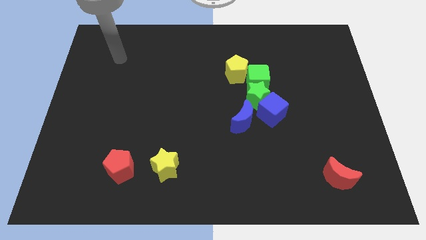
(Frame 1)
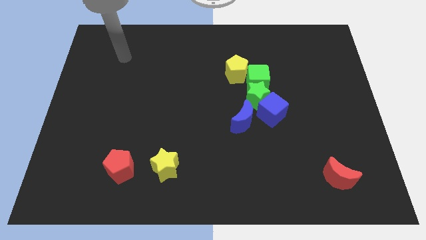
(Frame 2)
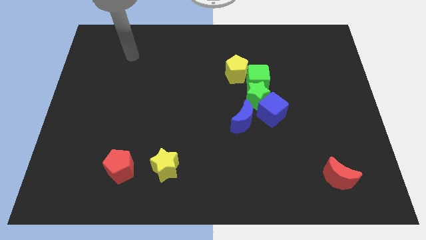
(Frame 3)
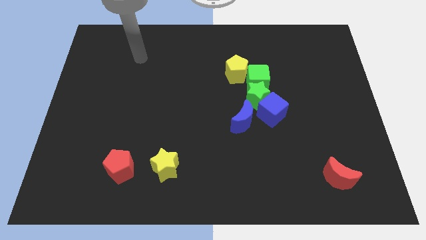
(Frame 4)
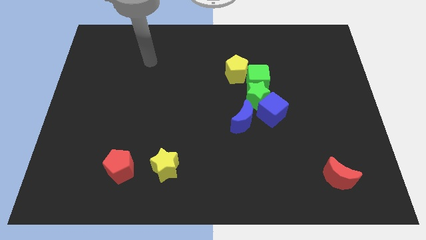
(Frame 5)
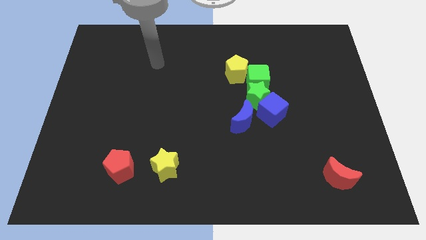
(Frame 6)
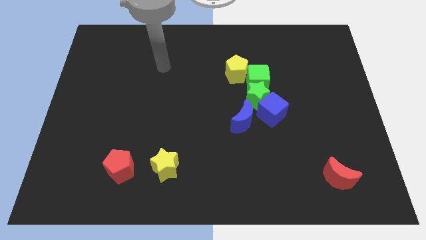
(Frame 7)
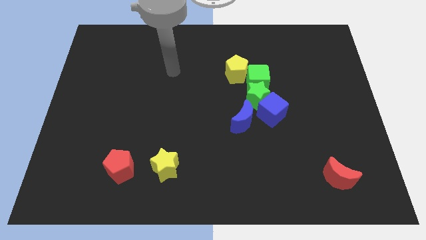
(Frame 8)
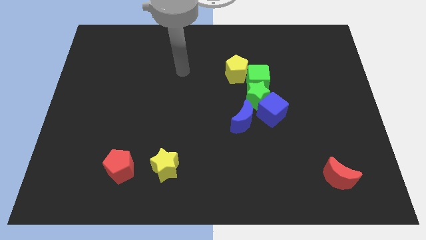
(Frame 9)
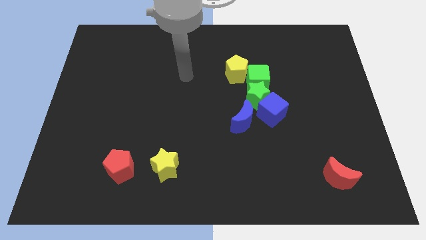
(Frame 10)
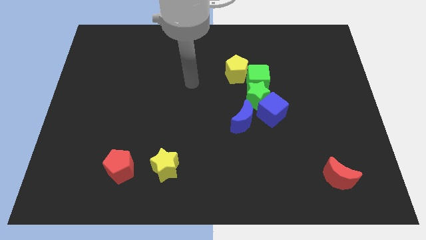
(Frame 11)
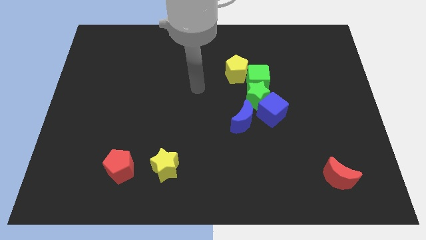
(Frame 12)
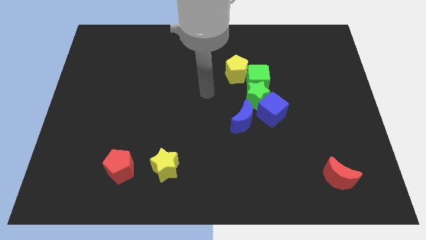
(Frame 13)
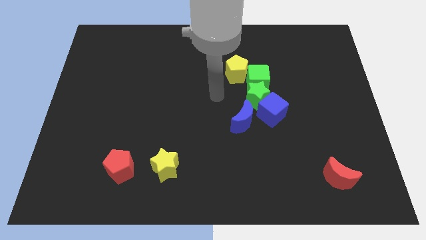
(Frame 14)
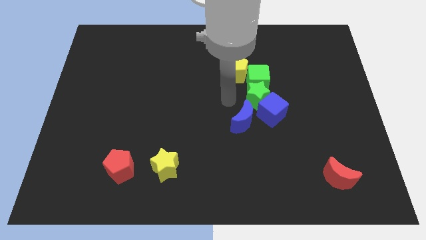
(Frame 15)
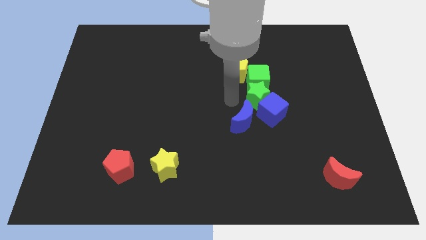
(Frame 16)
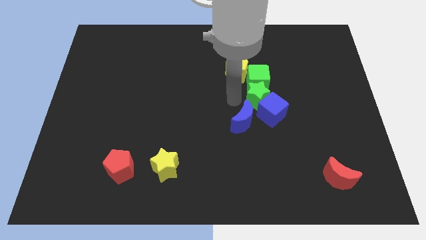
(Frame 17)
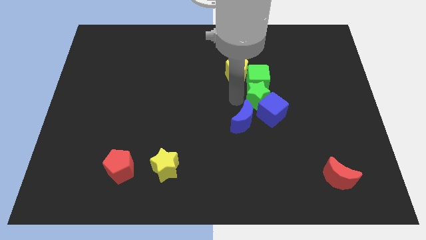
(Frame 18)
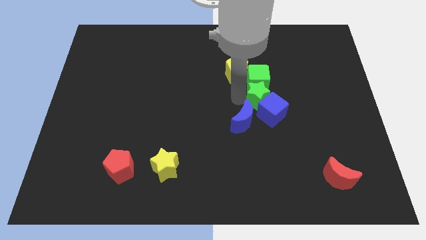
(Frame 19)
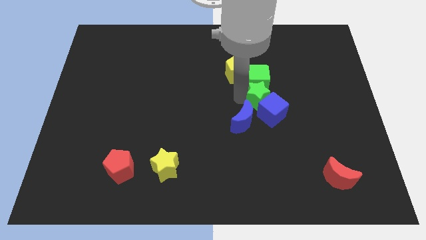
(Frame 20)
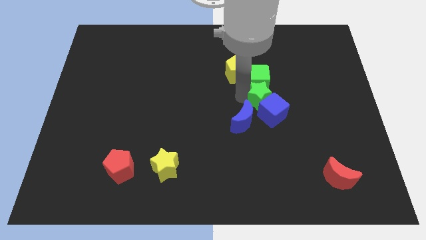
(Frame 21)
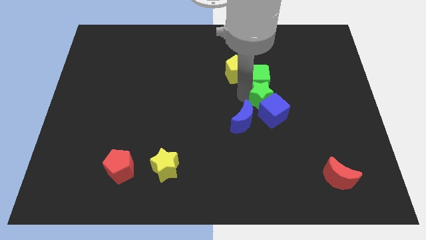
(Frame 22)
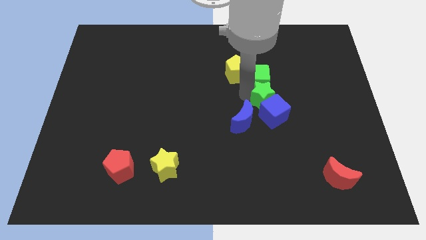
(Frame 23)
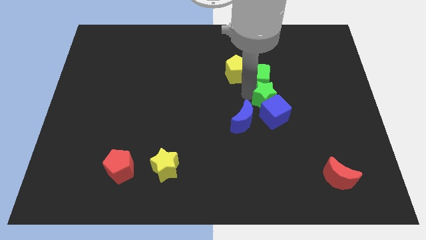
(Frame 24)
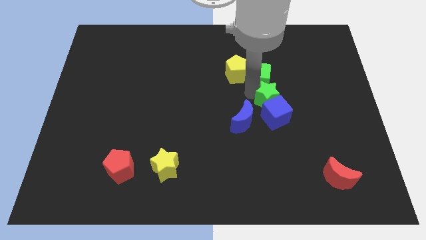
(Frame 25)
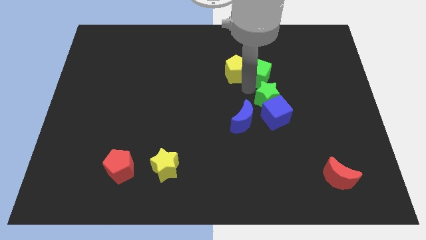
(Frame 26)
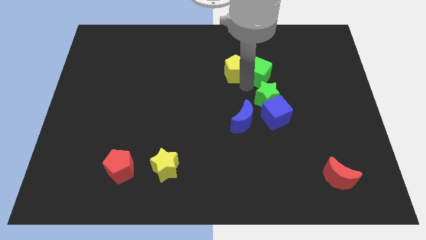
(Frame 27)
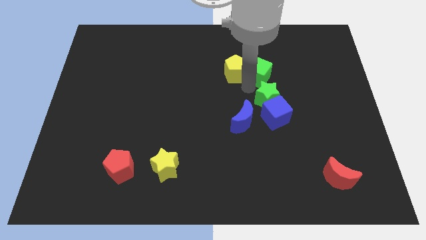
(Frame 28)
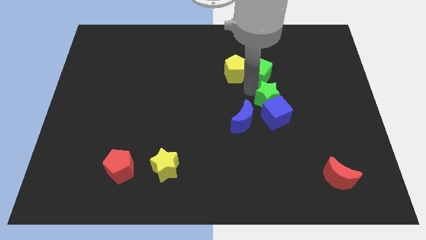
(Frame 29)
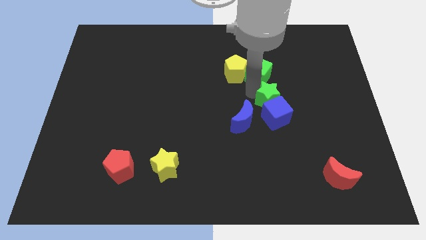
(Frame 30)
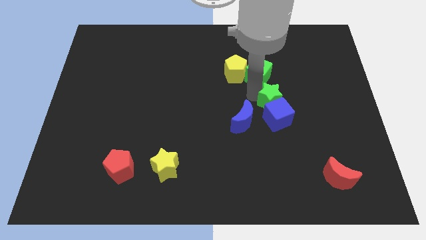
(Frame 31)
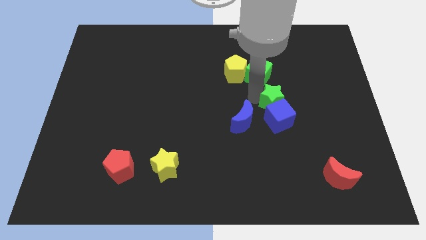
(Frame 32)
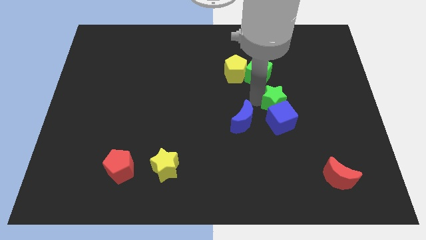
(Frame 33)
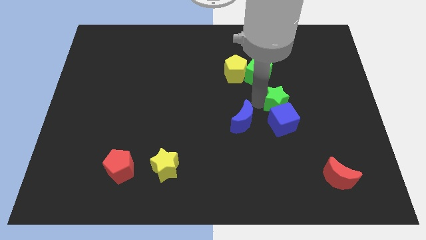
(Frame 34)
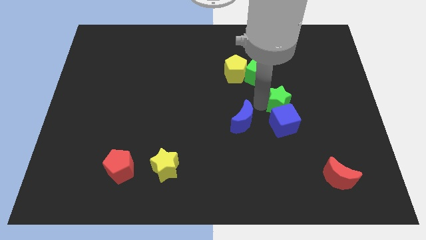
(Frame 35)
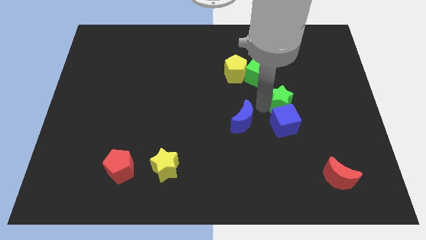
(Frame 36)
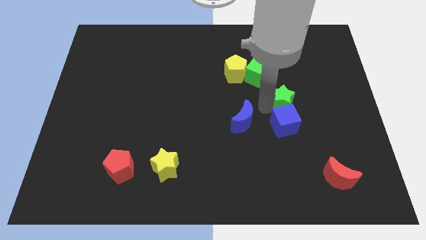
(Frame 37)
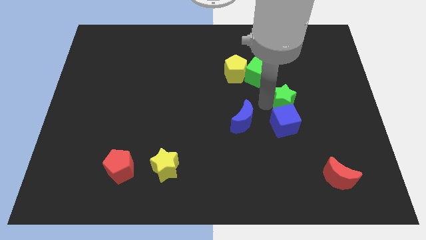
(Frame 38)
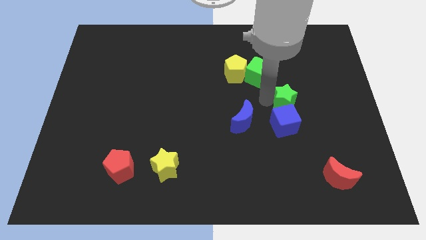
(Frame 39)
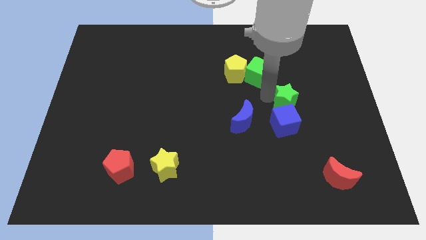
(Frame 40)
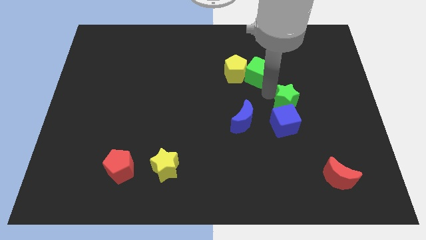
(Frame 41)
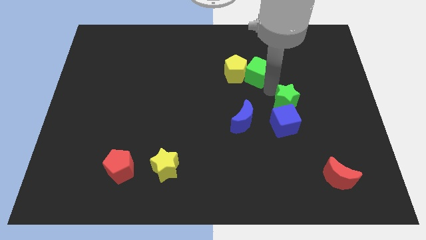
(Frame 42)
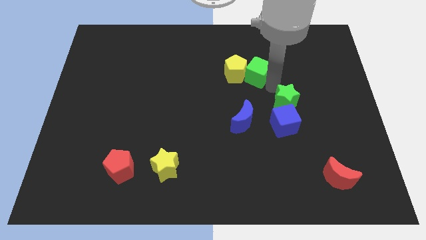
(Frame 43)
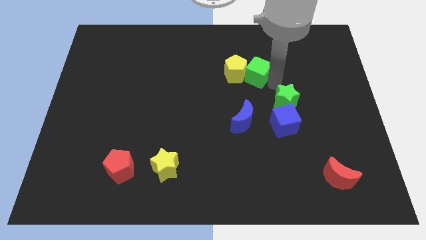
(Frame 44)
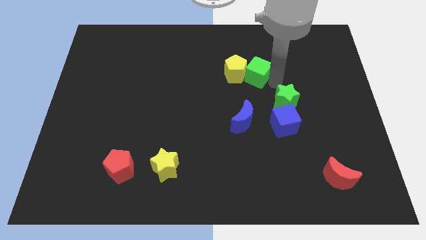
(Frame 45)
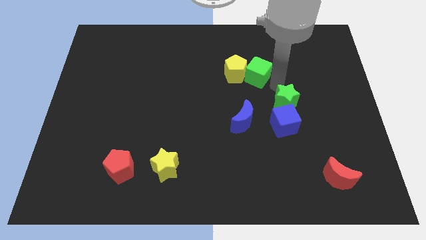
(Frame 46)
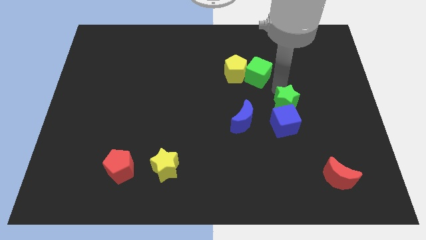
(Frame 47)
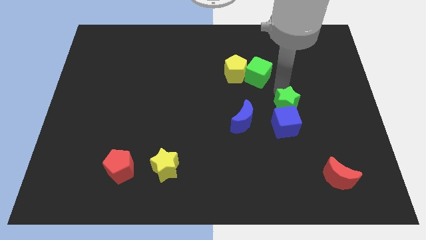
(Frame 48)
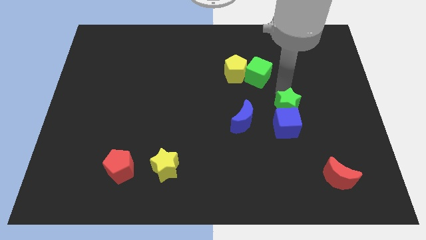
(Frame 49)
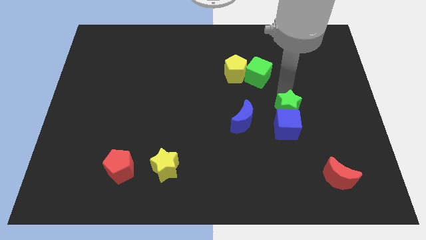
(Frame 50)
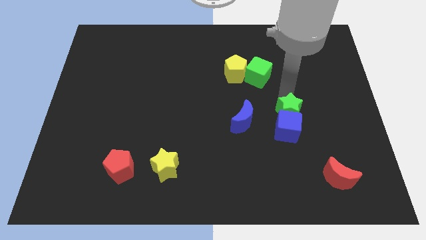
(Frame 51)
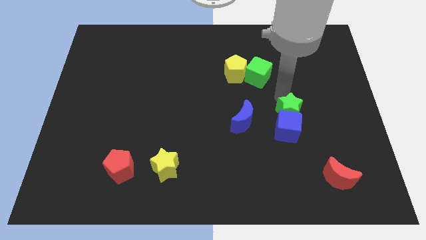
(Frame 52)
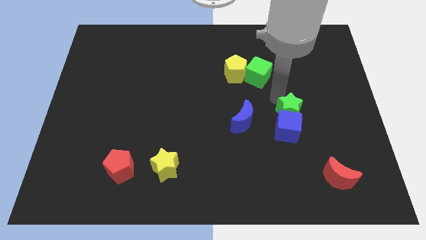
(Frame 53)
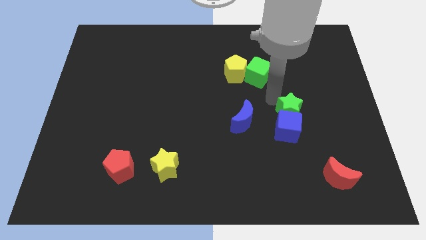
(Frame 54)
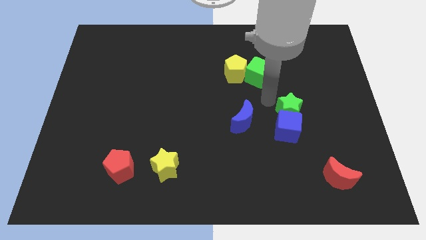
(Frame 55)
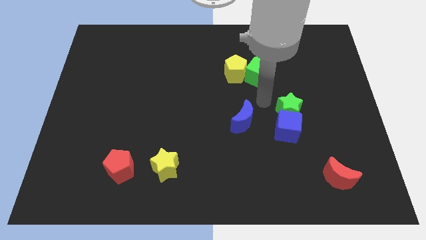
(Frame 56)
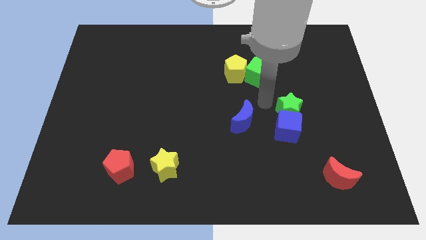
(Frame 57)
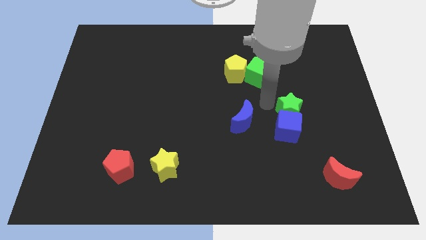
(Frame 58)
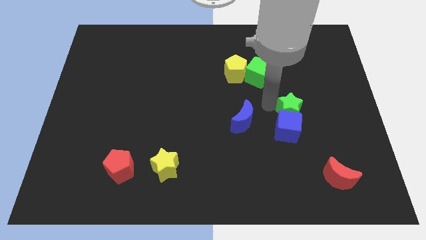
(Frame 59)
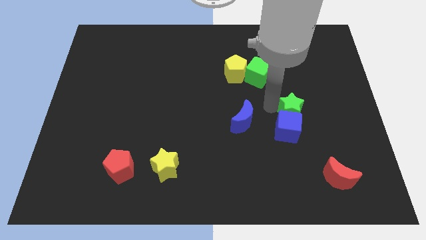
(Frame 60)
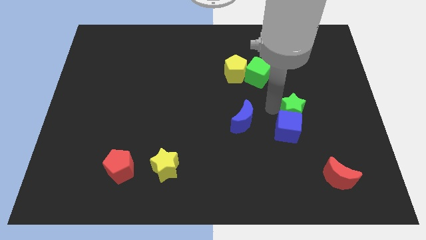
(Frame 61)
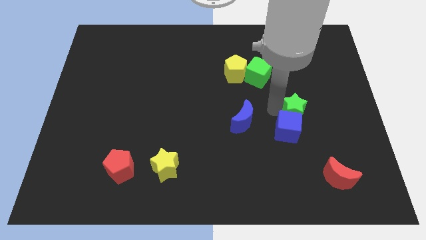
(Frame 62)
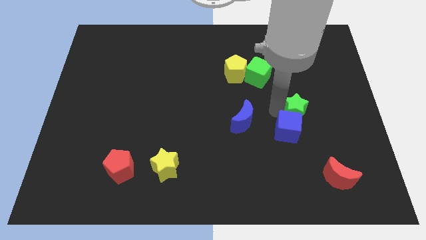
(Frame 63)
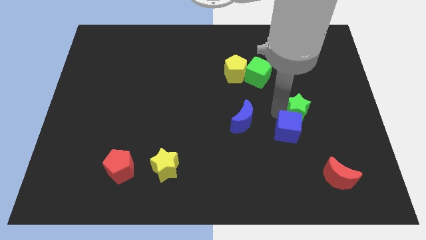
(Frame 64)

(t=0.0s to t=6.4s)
separate the green star from the clump

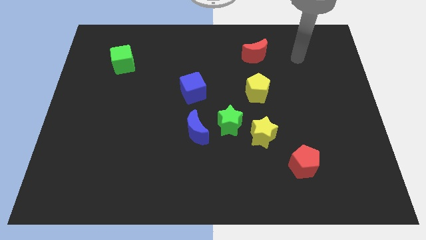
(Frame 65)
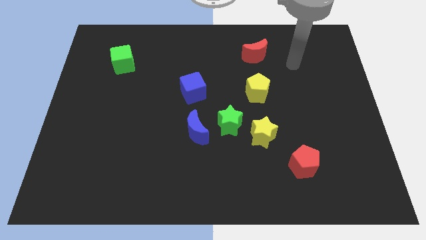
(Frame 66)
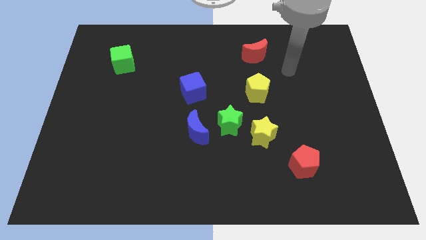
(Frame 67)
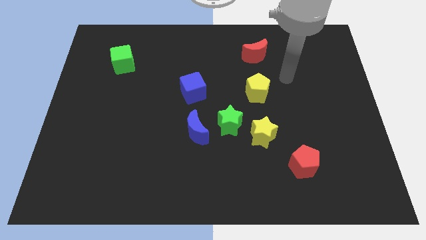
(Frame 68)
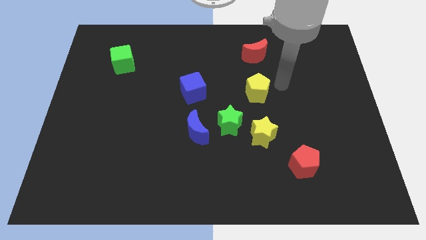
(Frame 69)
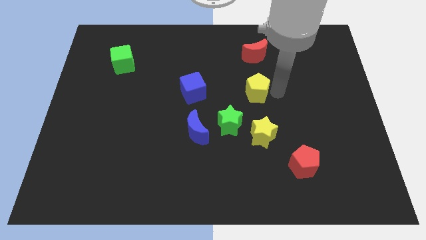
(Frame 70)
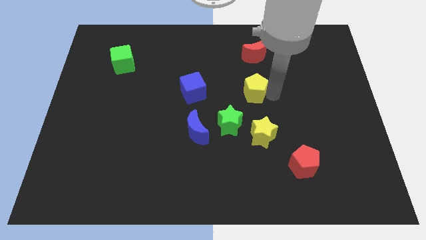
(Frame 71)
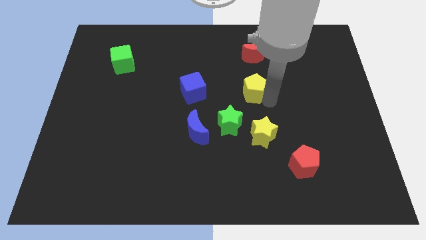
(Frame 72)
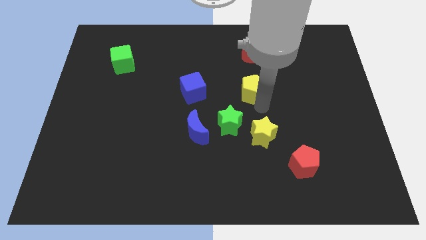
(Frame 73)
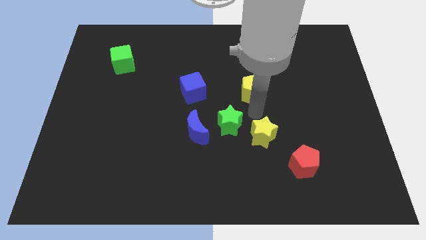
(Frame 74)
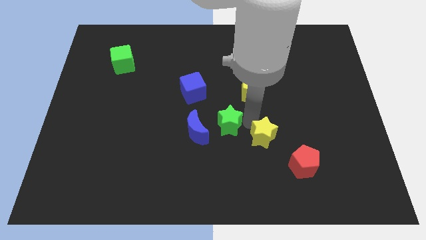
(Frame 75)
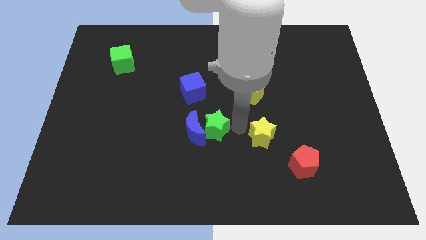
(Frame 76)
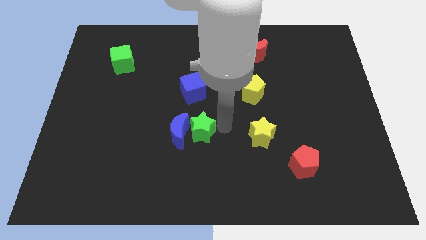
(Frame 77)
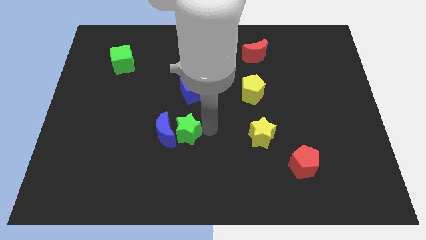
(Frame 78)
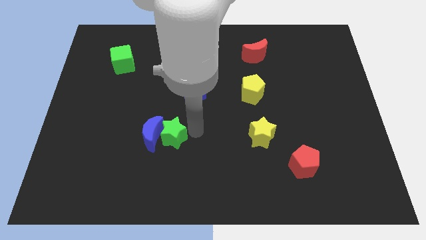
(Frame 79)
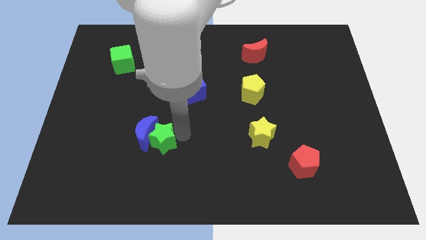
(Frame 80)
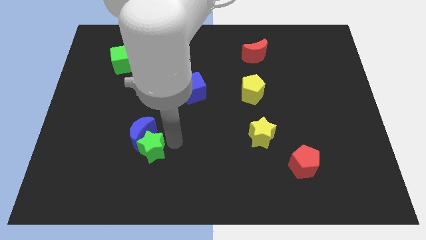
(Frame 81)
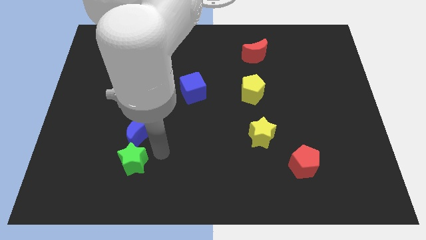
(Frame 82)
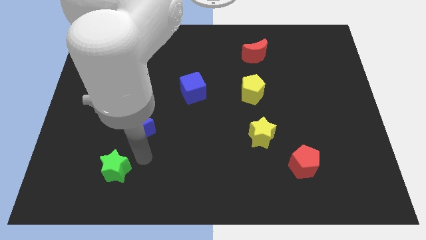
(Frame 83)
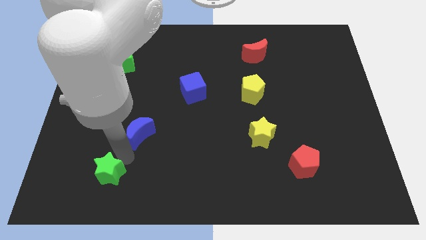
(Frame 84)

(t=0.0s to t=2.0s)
pull the blue moon apart from the green star

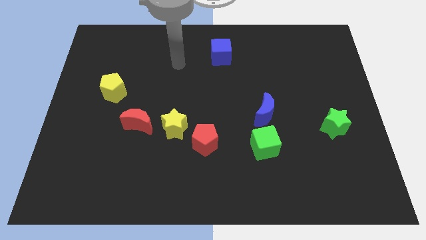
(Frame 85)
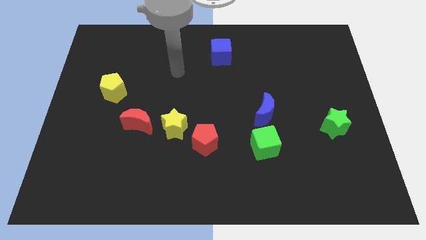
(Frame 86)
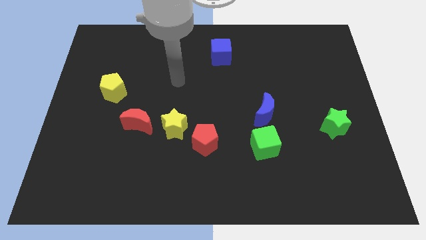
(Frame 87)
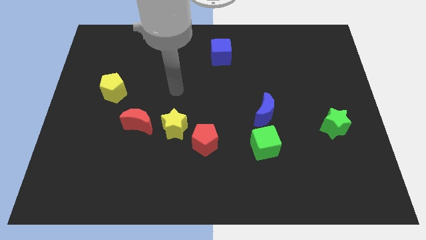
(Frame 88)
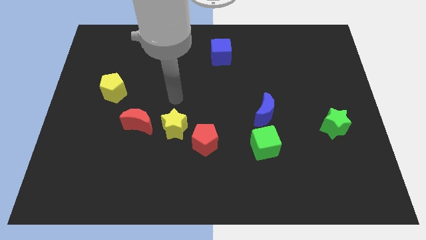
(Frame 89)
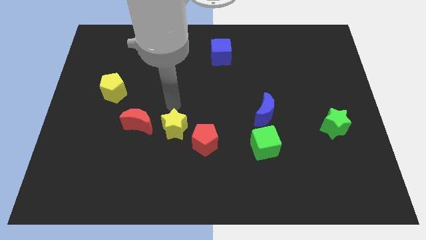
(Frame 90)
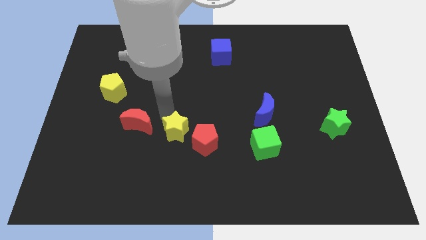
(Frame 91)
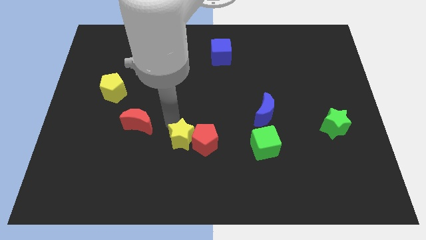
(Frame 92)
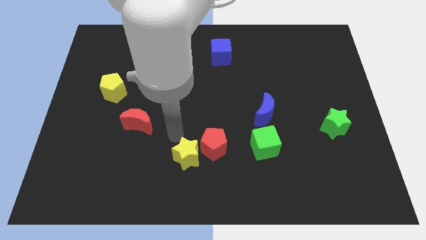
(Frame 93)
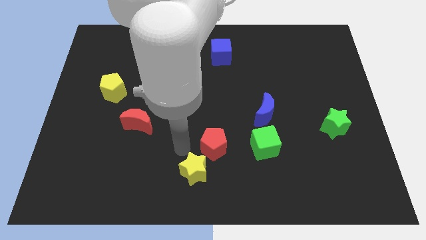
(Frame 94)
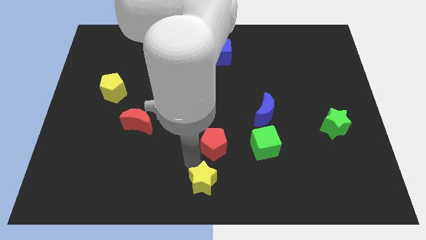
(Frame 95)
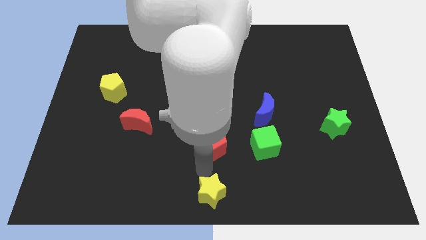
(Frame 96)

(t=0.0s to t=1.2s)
separate the red pentagon from the yellow star
